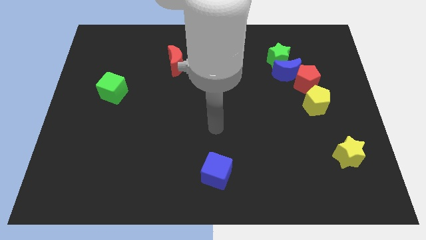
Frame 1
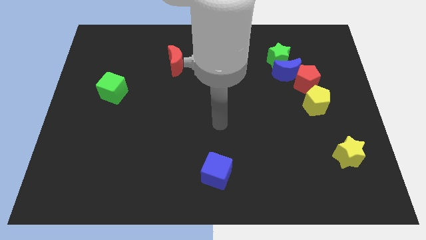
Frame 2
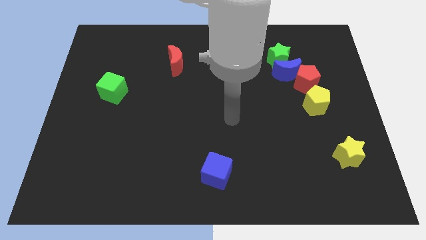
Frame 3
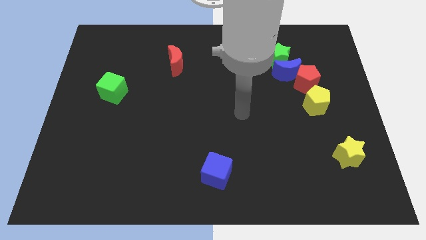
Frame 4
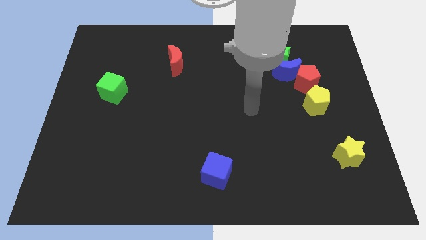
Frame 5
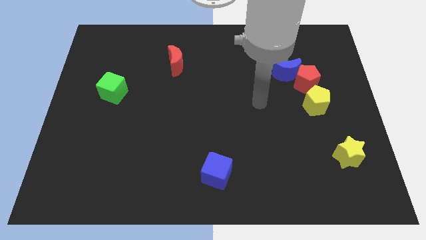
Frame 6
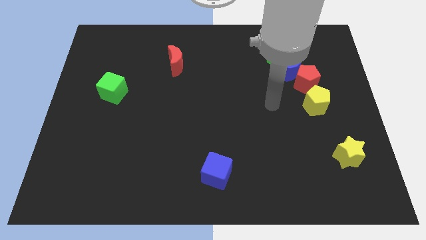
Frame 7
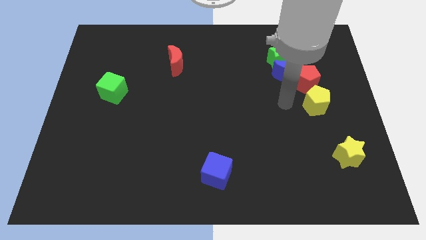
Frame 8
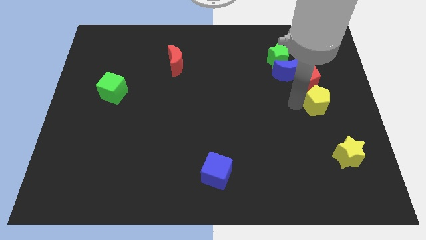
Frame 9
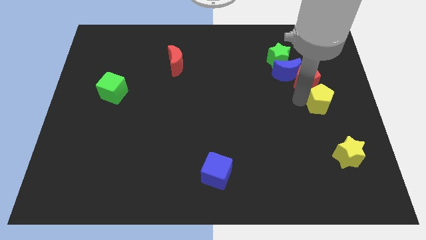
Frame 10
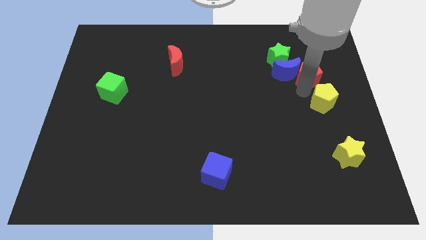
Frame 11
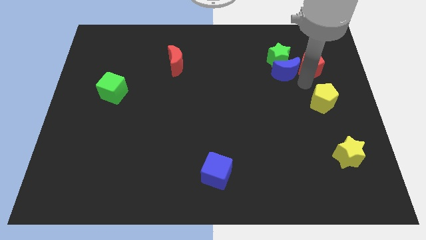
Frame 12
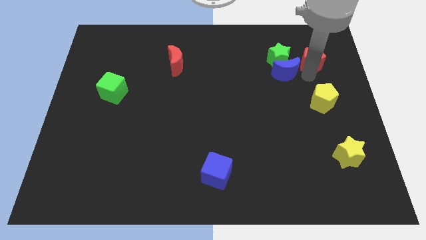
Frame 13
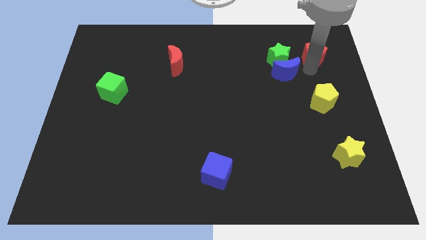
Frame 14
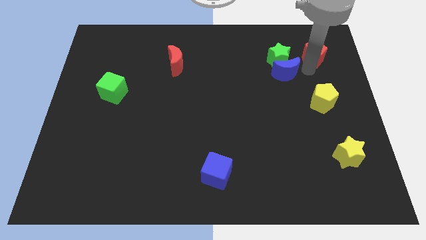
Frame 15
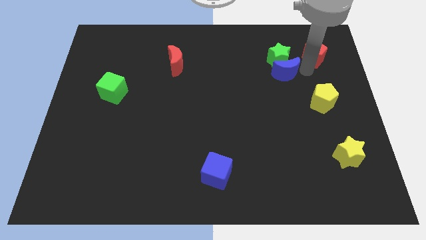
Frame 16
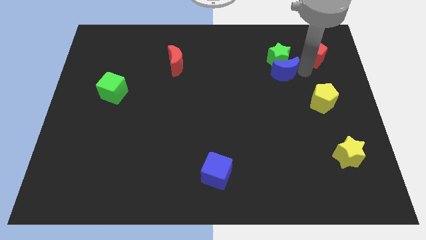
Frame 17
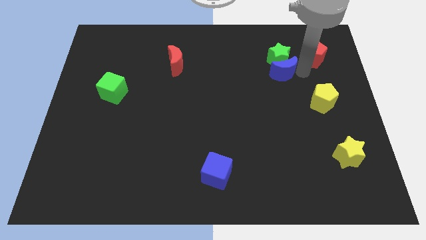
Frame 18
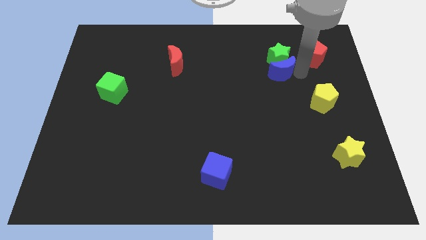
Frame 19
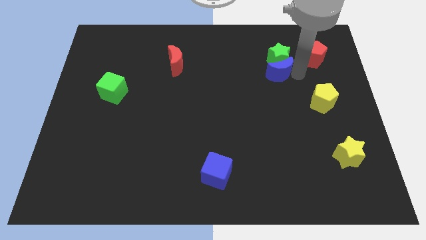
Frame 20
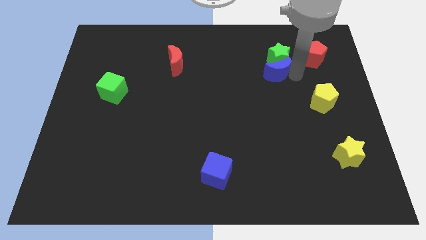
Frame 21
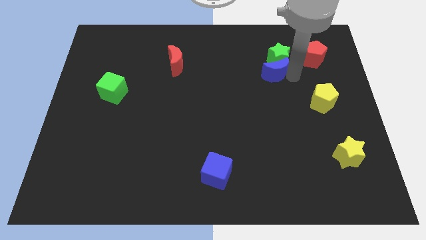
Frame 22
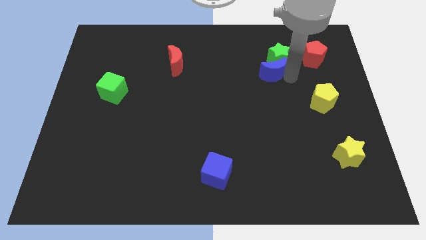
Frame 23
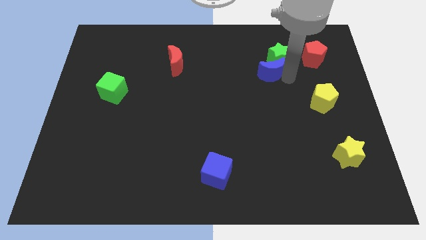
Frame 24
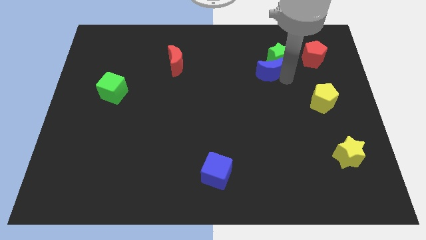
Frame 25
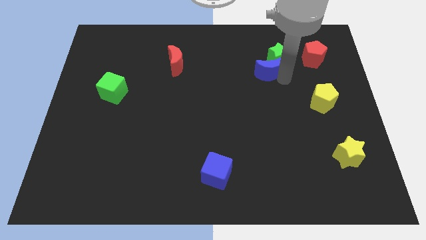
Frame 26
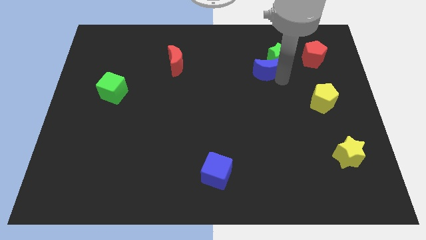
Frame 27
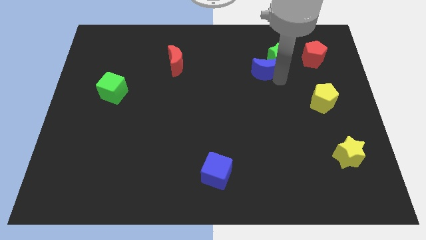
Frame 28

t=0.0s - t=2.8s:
move the blue moon away from the green star and red pentagon

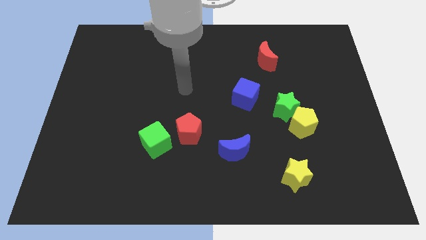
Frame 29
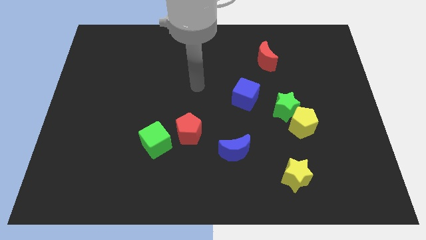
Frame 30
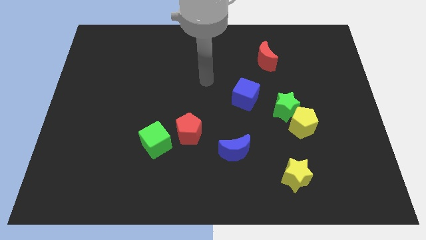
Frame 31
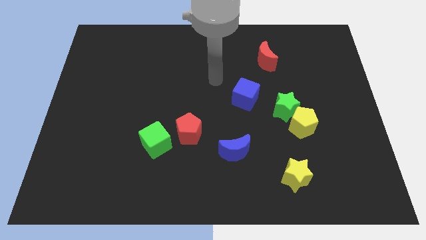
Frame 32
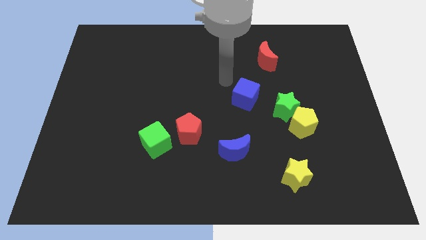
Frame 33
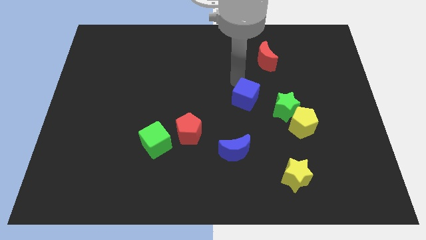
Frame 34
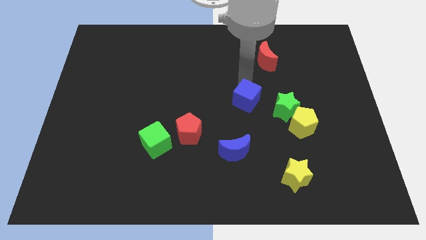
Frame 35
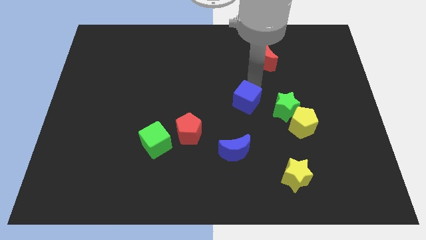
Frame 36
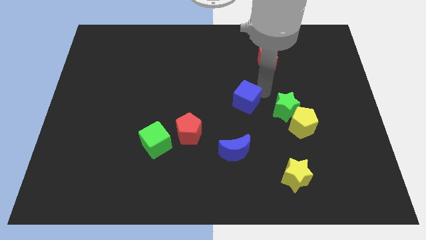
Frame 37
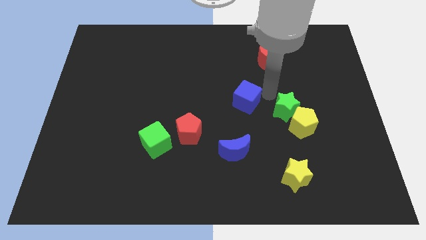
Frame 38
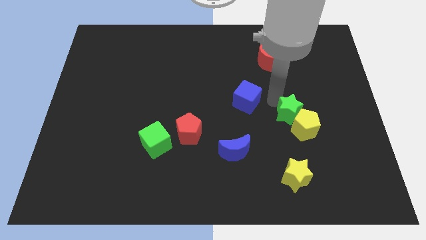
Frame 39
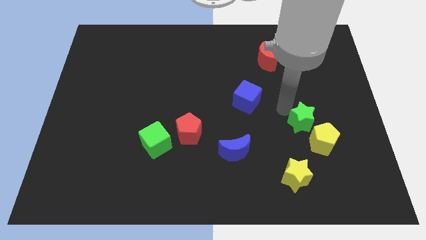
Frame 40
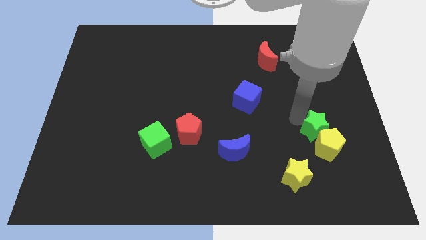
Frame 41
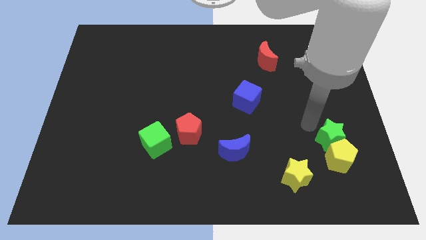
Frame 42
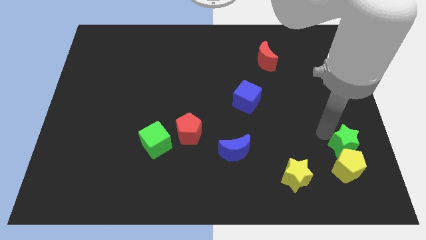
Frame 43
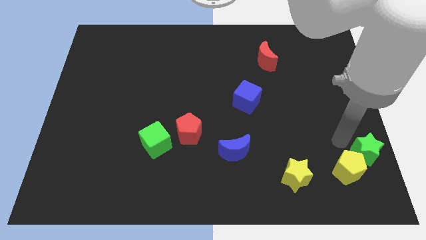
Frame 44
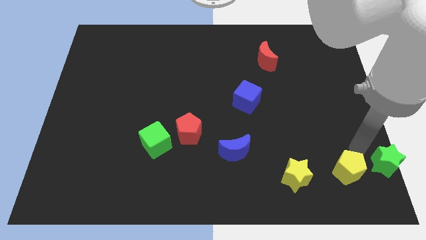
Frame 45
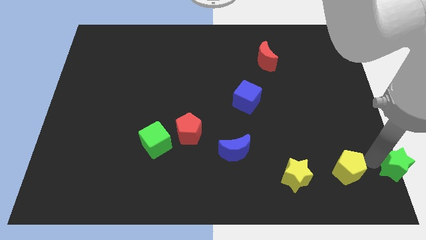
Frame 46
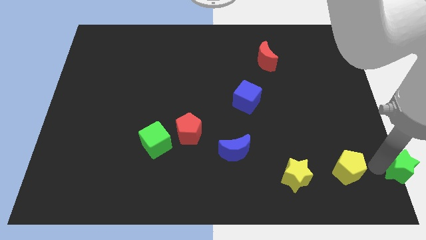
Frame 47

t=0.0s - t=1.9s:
separate the yellow pentagon from the green star

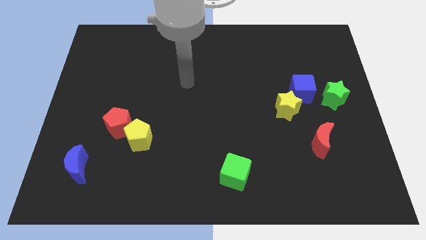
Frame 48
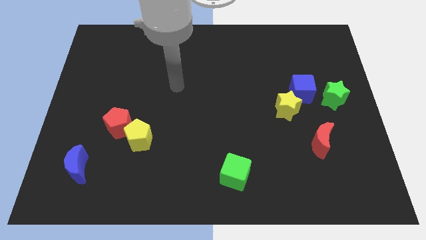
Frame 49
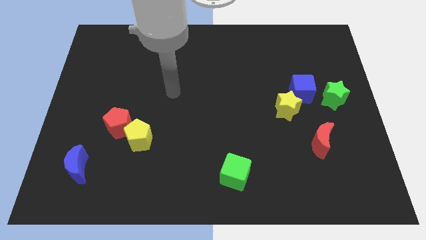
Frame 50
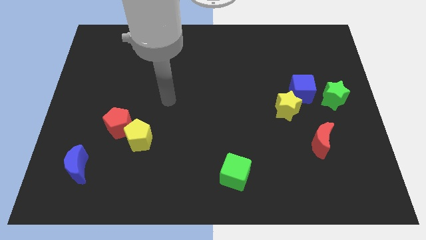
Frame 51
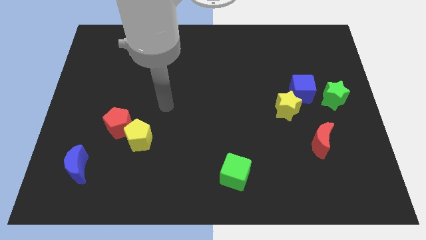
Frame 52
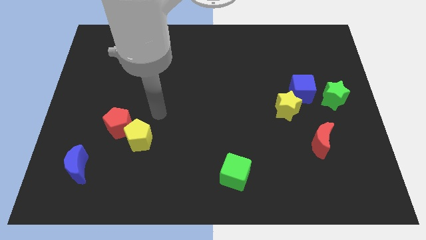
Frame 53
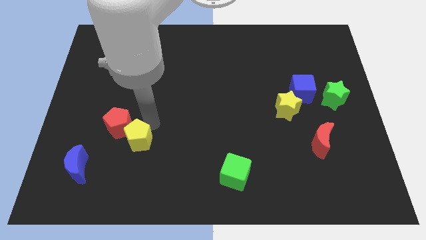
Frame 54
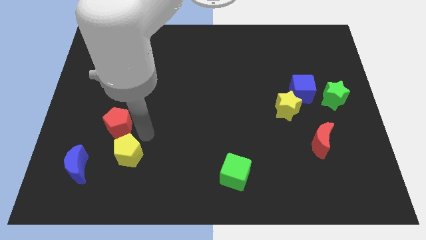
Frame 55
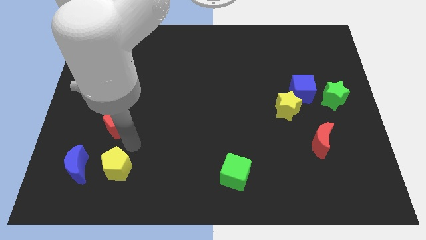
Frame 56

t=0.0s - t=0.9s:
pull the red pentagon apart from the yellow pentagon

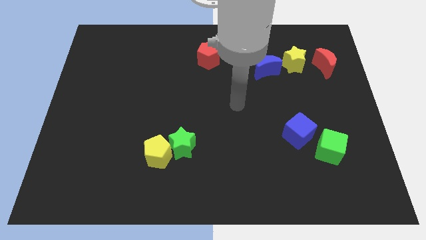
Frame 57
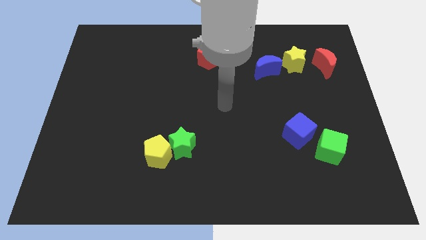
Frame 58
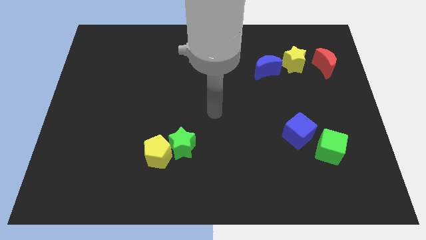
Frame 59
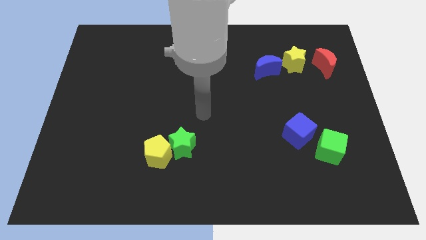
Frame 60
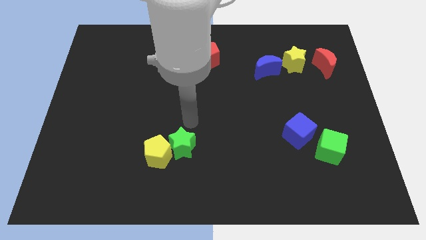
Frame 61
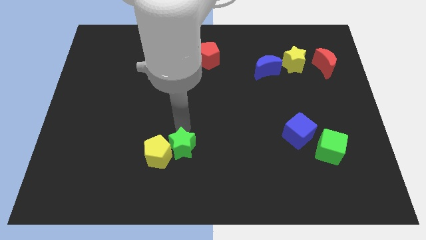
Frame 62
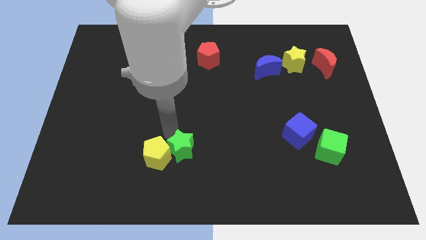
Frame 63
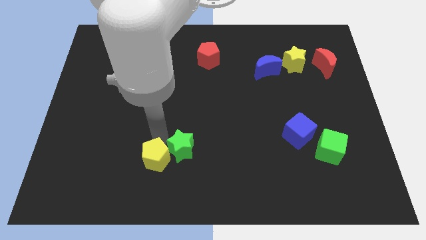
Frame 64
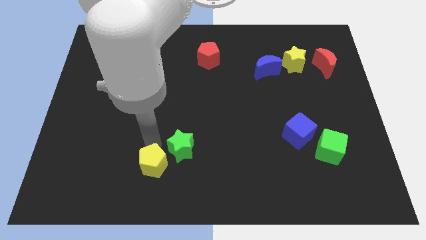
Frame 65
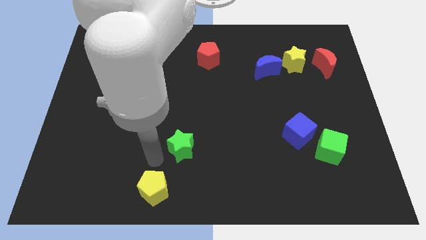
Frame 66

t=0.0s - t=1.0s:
separate the green star from the yellow pentagon

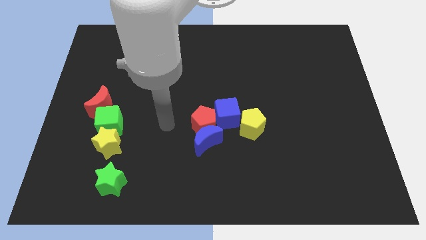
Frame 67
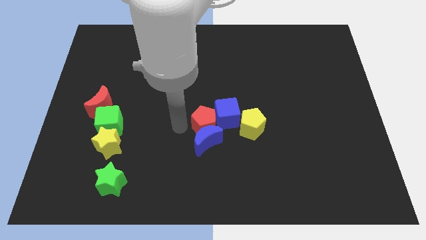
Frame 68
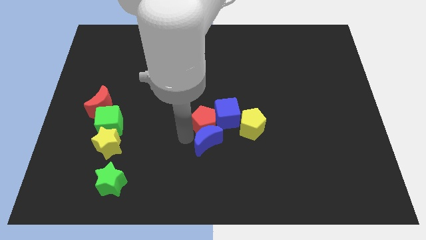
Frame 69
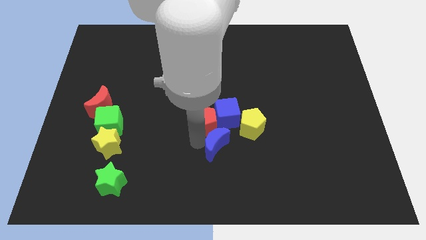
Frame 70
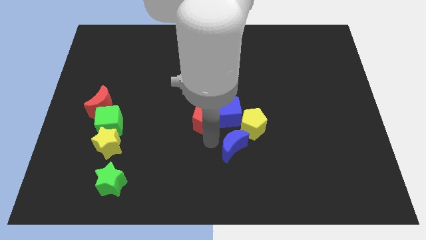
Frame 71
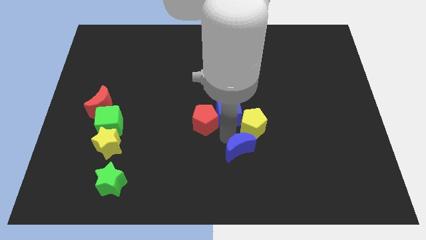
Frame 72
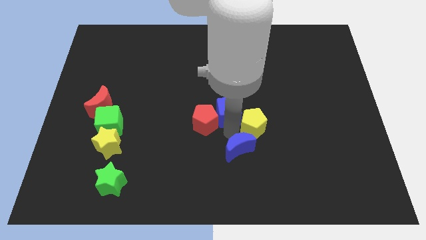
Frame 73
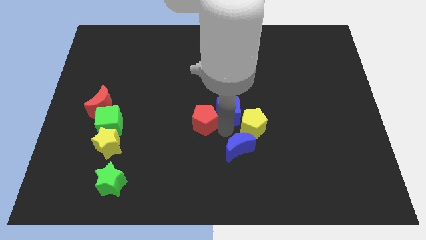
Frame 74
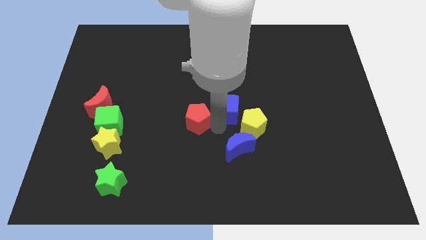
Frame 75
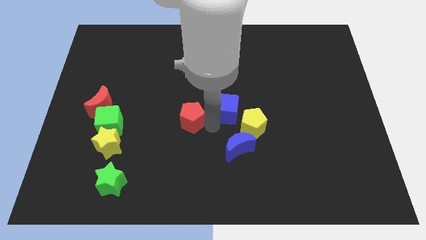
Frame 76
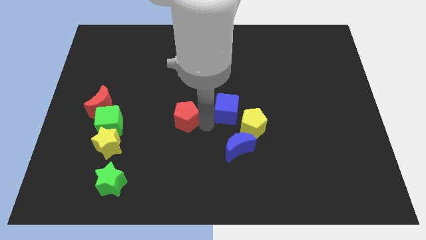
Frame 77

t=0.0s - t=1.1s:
move the red pentagon away from the blue moon and blue cube

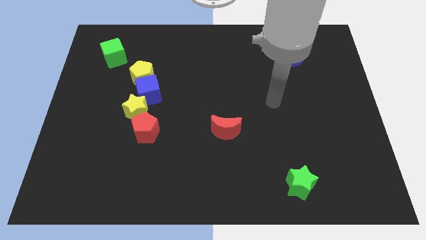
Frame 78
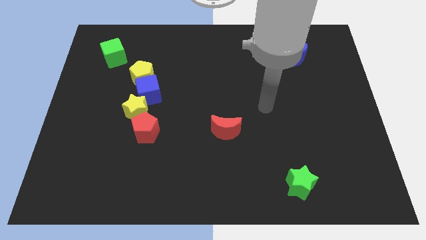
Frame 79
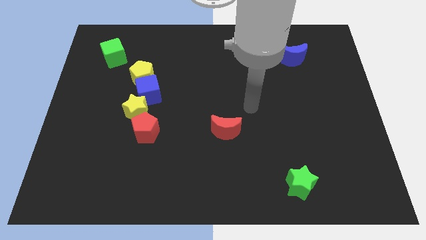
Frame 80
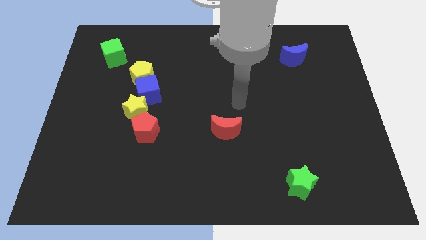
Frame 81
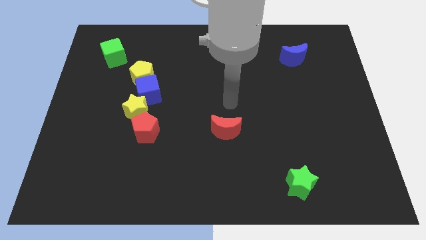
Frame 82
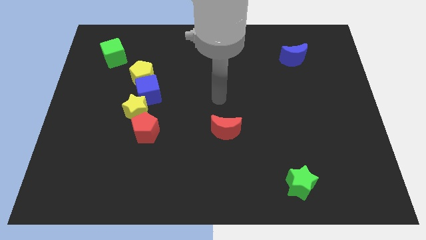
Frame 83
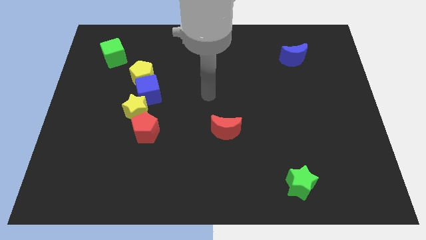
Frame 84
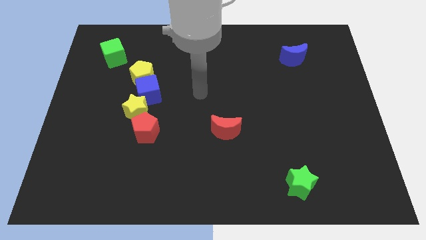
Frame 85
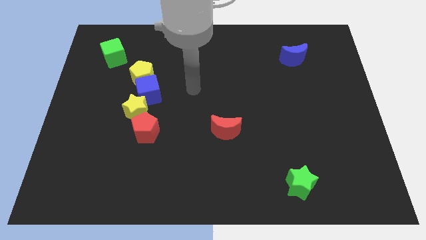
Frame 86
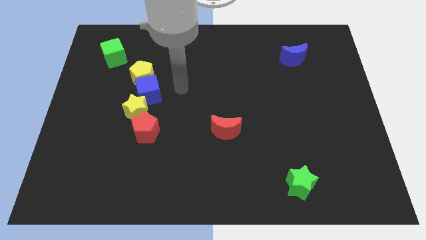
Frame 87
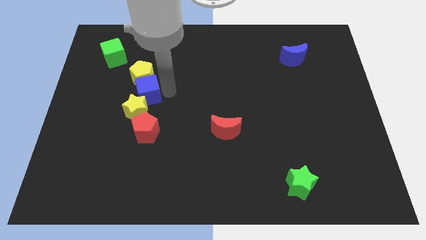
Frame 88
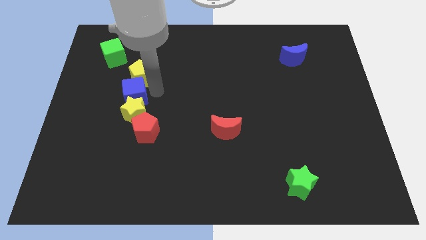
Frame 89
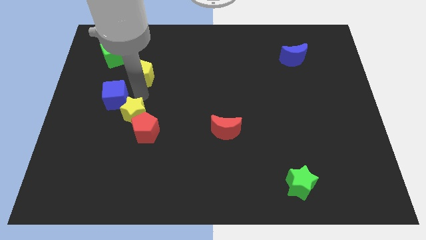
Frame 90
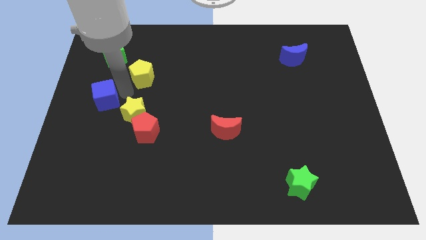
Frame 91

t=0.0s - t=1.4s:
separate the yellow pentagon from the blue cube
